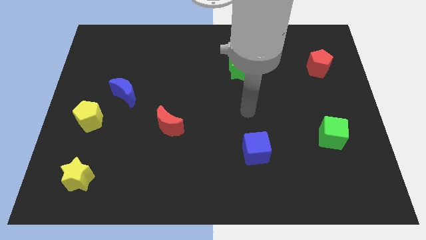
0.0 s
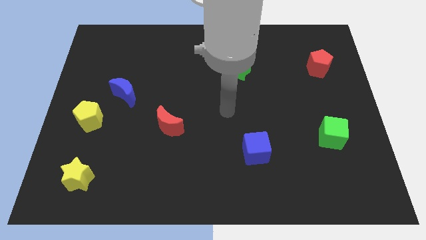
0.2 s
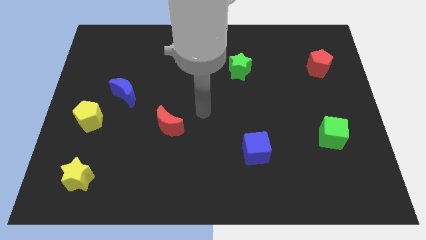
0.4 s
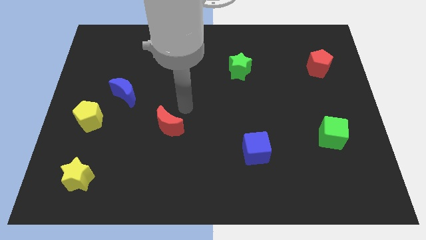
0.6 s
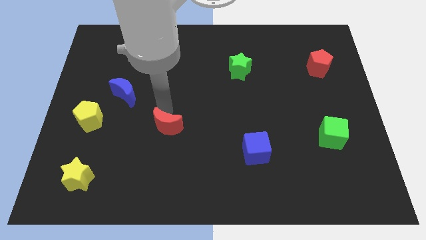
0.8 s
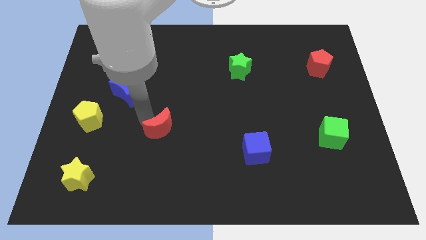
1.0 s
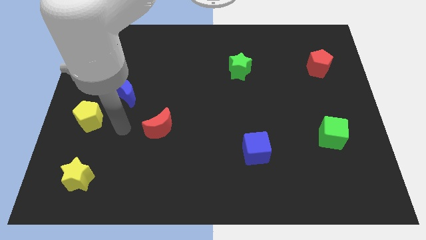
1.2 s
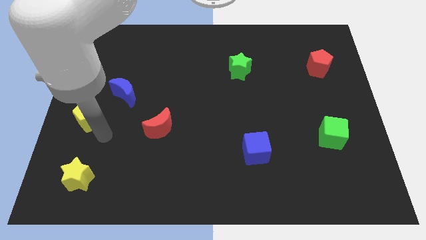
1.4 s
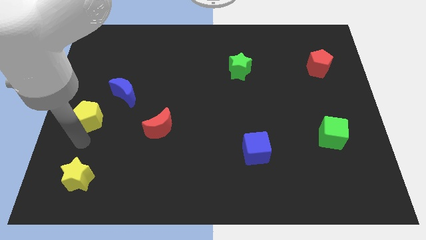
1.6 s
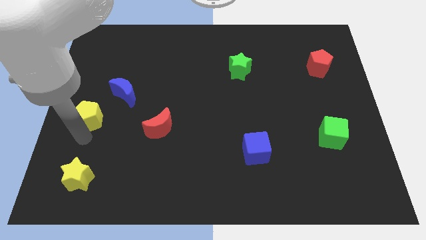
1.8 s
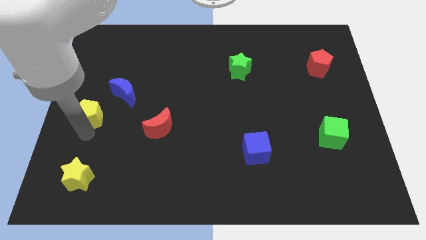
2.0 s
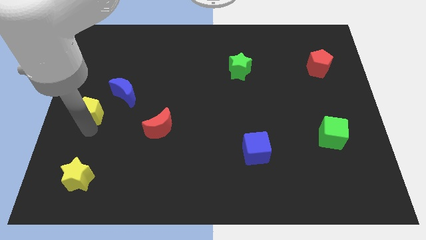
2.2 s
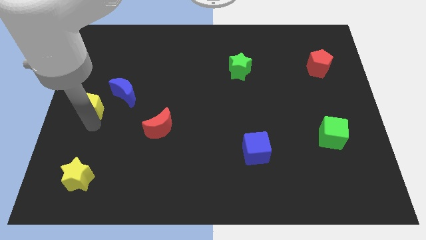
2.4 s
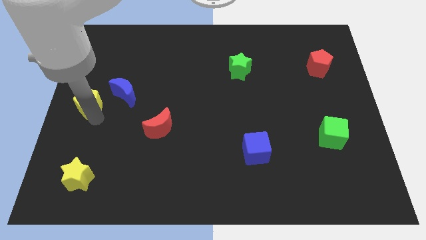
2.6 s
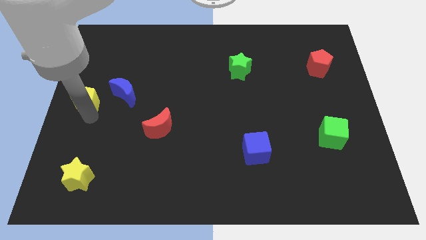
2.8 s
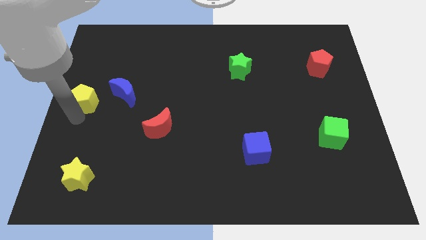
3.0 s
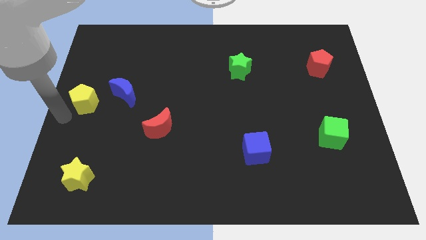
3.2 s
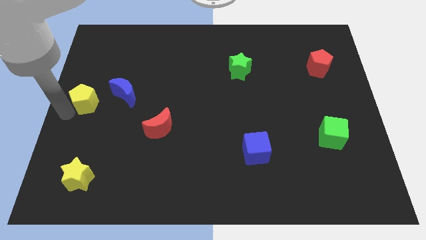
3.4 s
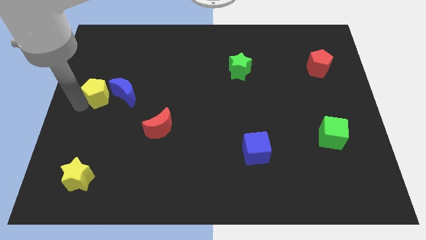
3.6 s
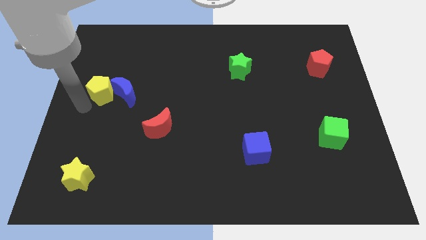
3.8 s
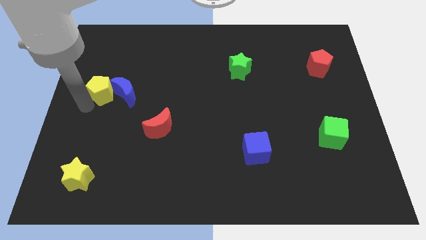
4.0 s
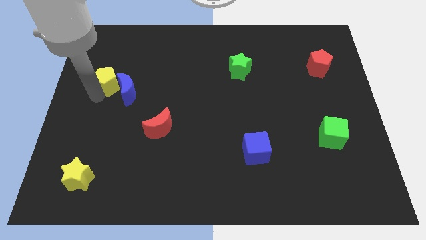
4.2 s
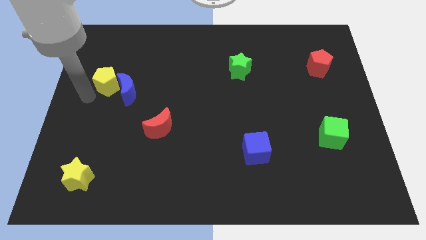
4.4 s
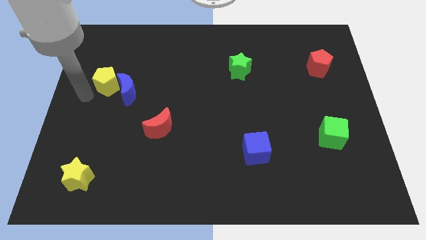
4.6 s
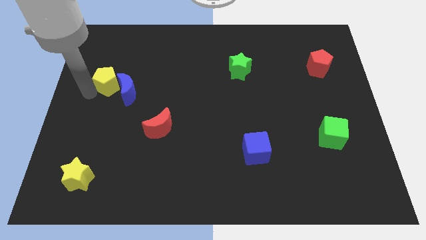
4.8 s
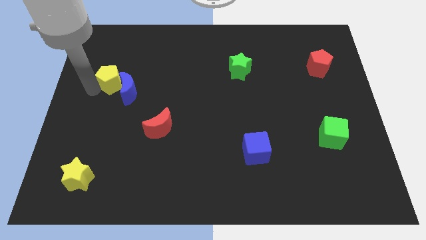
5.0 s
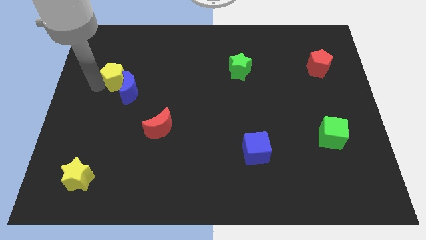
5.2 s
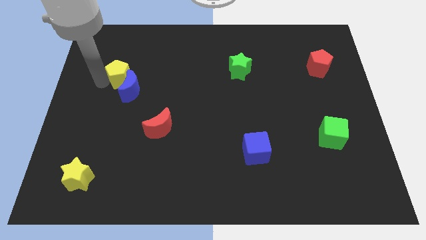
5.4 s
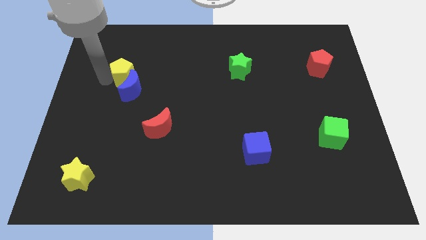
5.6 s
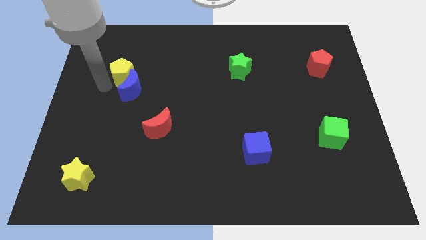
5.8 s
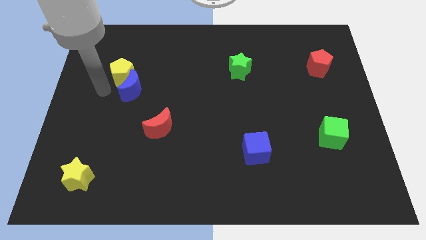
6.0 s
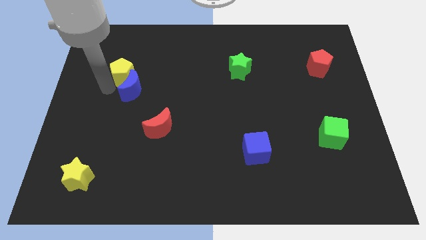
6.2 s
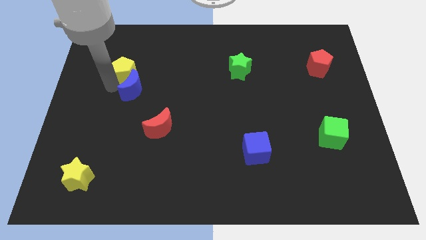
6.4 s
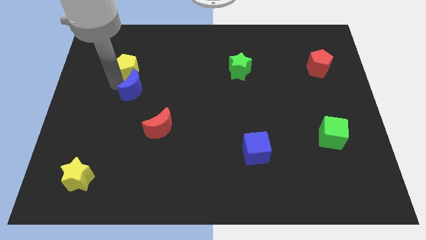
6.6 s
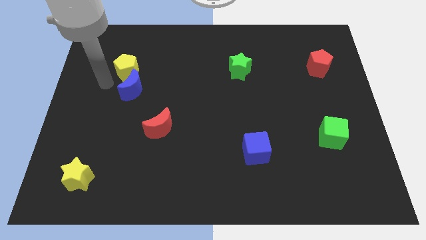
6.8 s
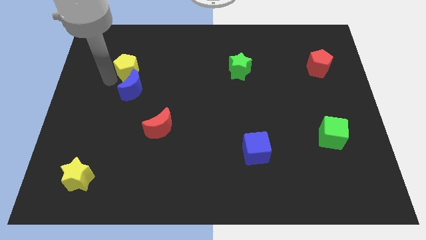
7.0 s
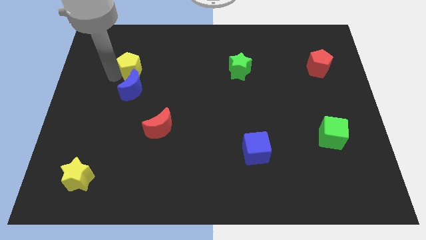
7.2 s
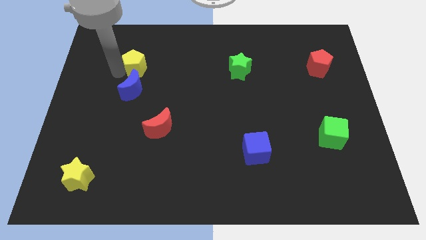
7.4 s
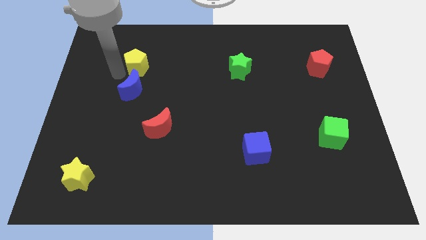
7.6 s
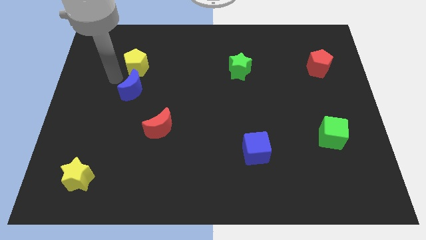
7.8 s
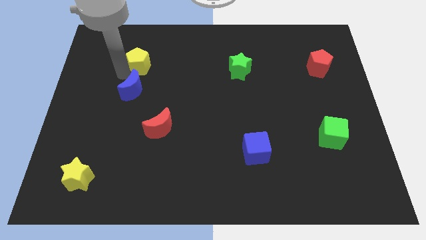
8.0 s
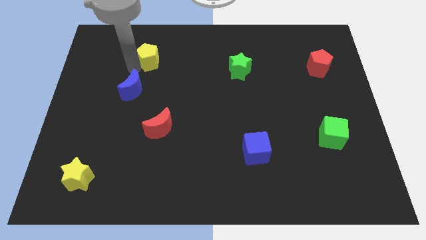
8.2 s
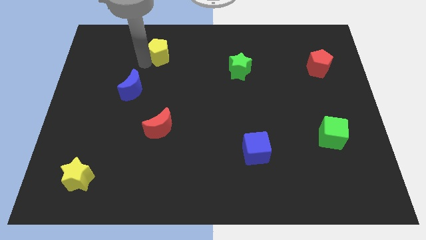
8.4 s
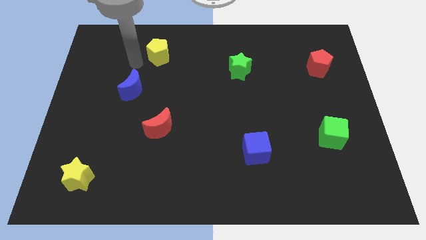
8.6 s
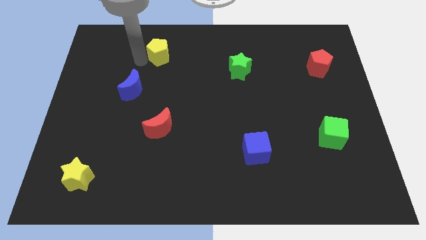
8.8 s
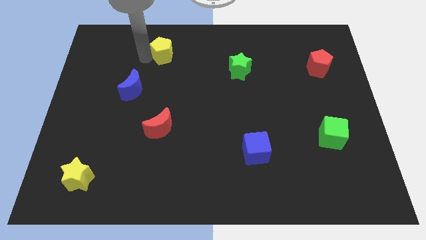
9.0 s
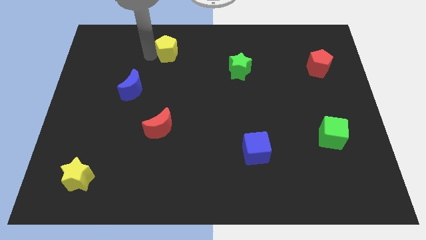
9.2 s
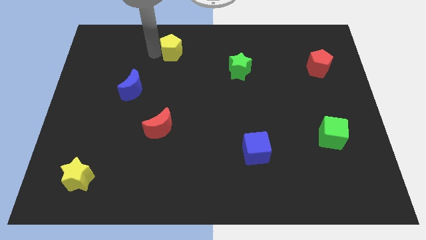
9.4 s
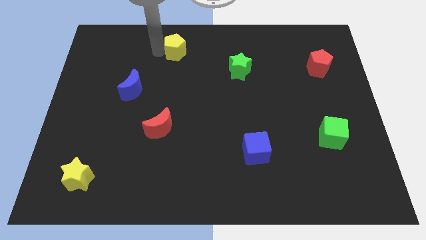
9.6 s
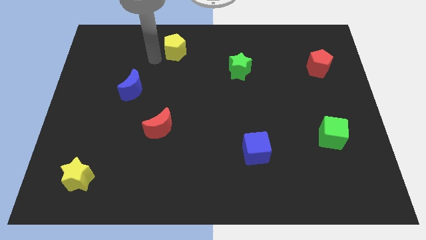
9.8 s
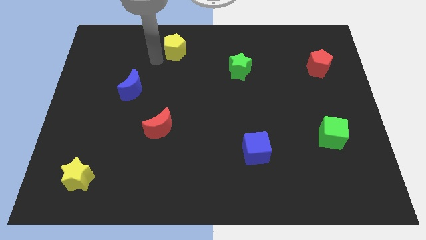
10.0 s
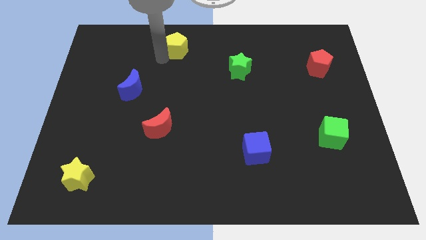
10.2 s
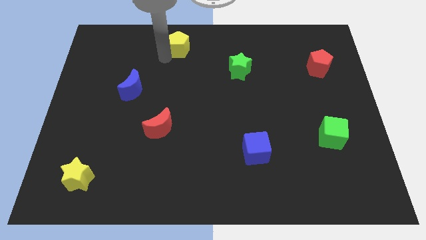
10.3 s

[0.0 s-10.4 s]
move the yellow pentagon to the top side
